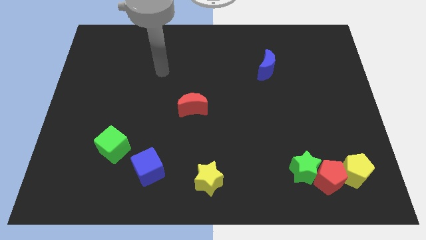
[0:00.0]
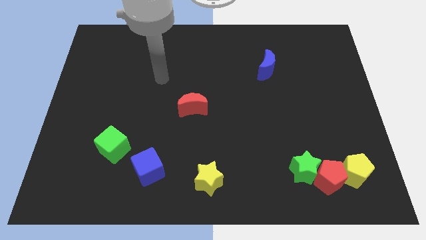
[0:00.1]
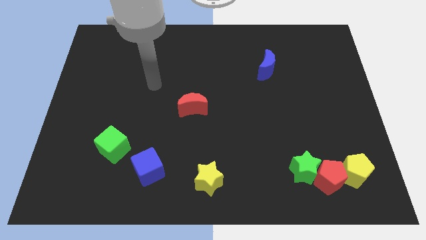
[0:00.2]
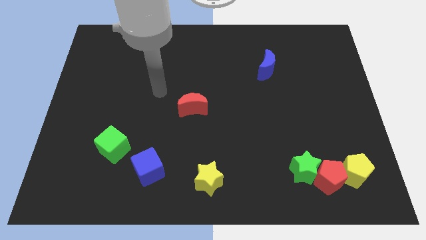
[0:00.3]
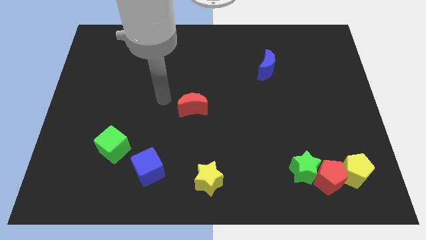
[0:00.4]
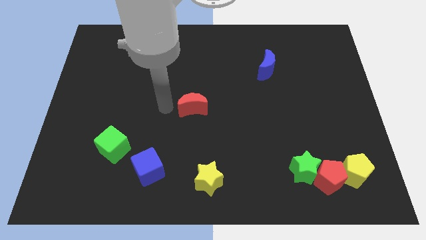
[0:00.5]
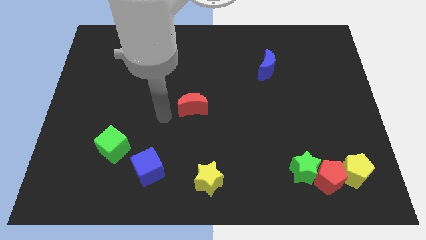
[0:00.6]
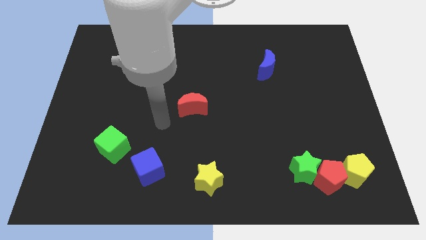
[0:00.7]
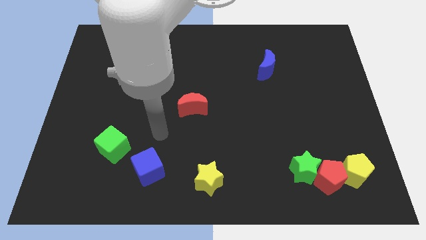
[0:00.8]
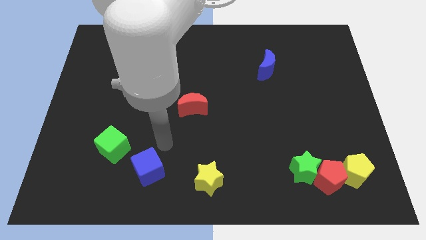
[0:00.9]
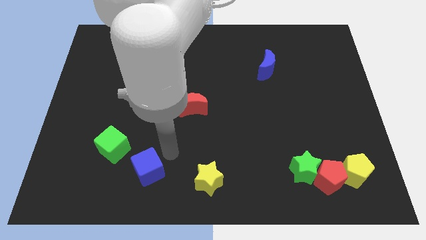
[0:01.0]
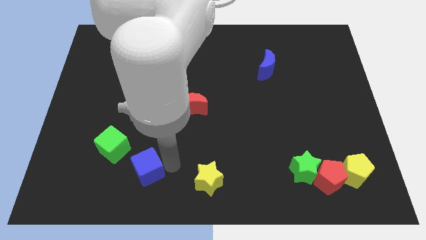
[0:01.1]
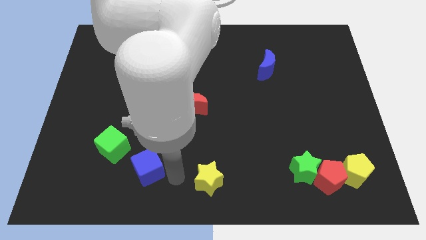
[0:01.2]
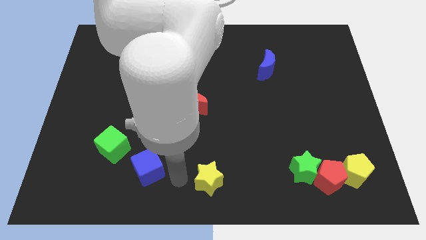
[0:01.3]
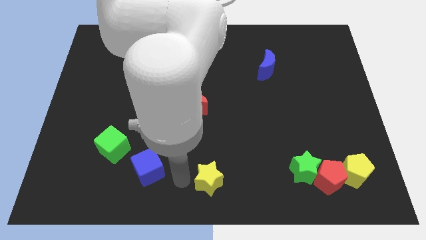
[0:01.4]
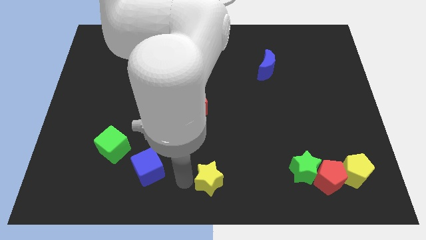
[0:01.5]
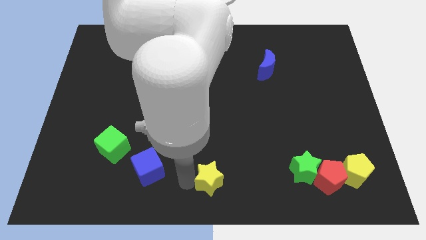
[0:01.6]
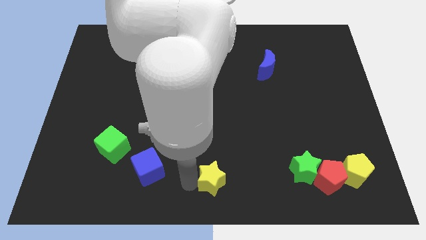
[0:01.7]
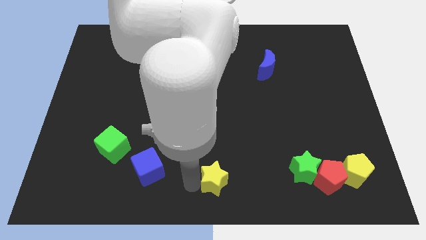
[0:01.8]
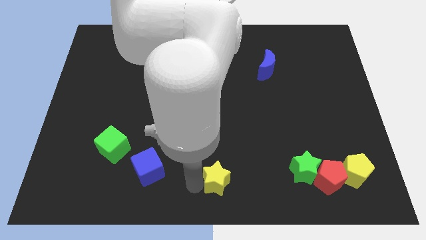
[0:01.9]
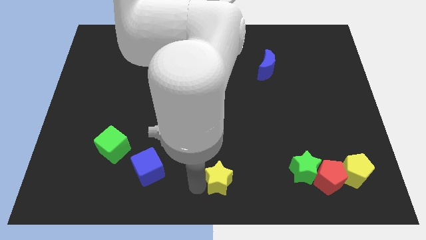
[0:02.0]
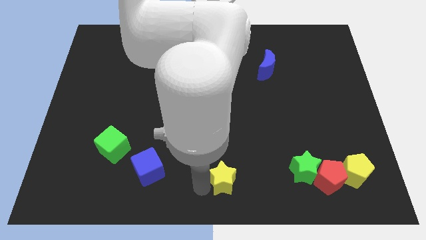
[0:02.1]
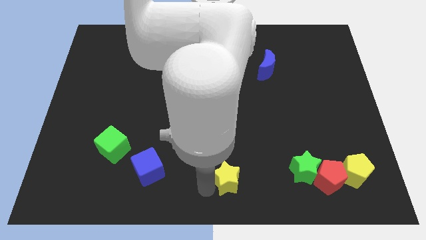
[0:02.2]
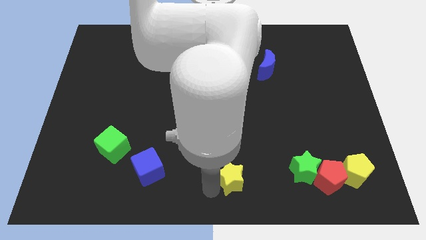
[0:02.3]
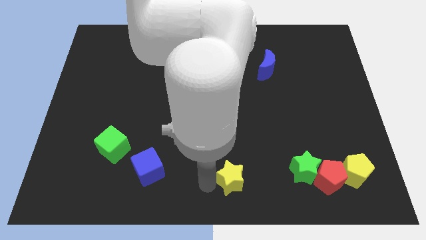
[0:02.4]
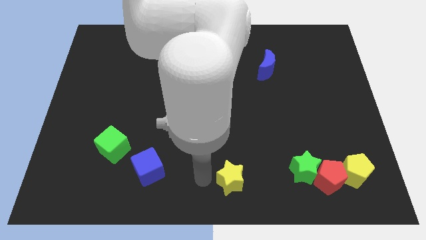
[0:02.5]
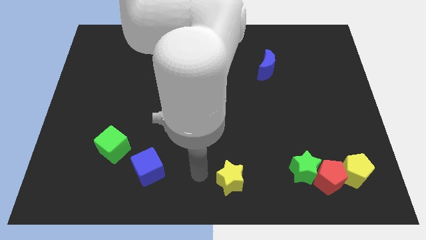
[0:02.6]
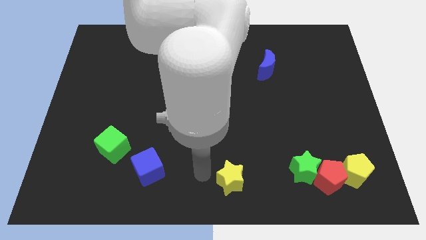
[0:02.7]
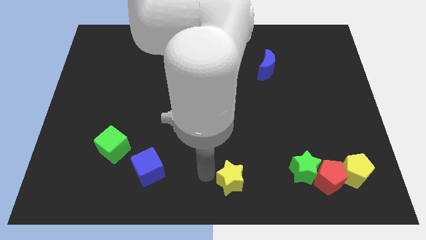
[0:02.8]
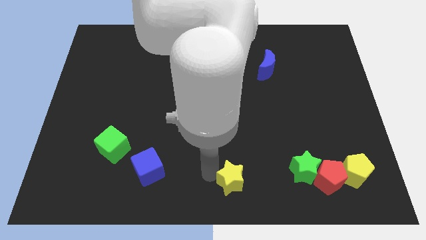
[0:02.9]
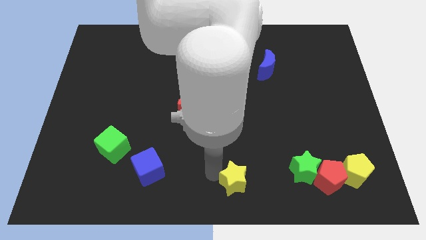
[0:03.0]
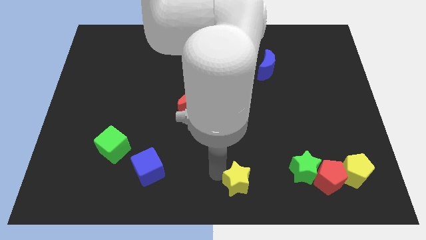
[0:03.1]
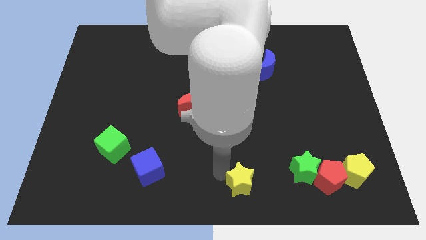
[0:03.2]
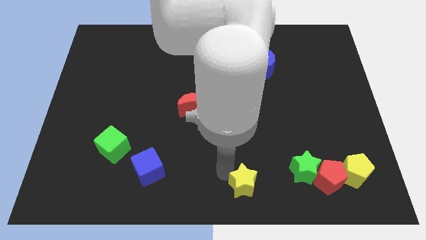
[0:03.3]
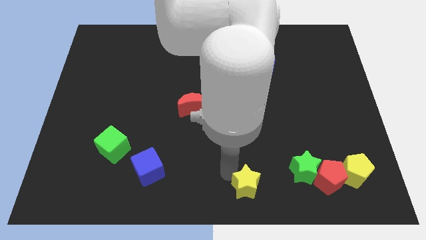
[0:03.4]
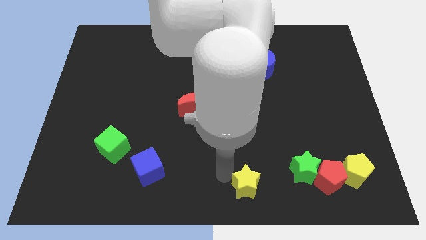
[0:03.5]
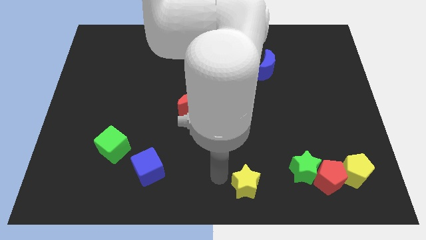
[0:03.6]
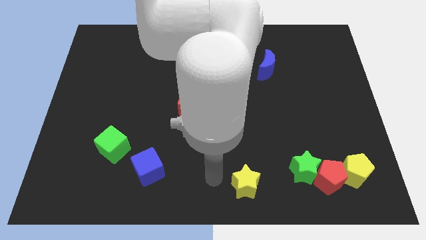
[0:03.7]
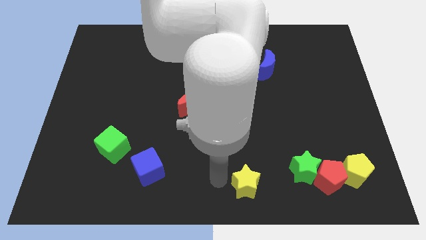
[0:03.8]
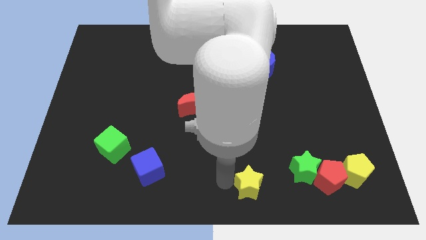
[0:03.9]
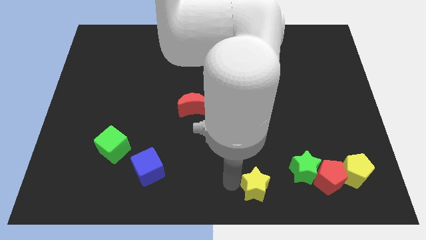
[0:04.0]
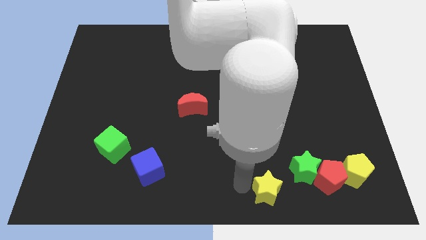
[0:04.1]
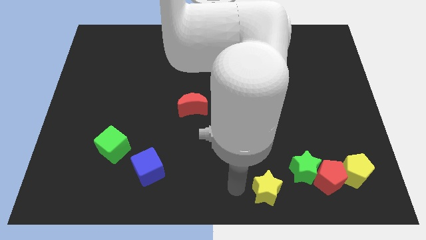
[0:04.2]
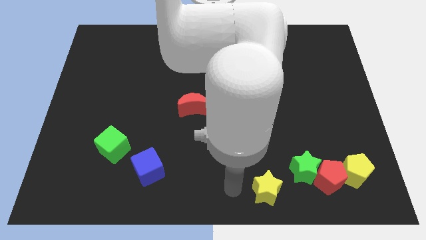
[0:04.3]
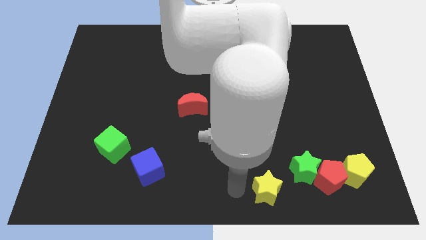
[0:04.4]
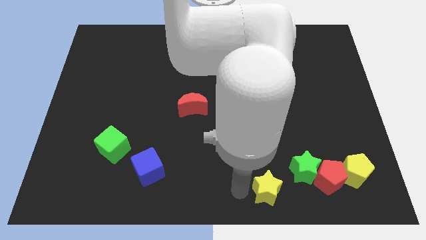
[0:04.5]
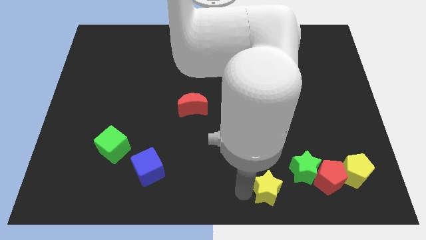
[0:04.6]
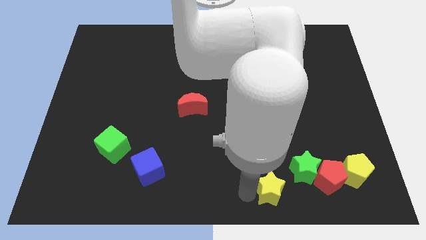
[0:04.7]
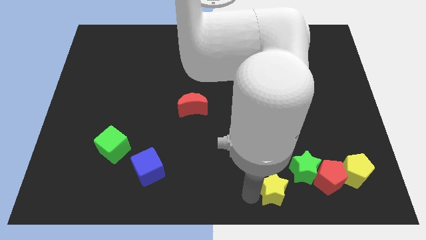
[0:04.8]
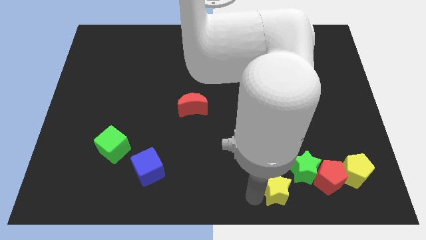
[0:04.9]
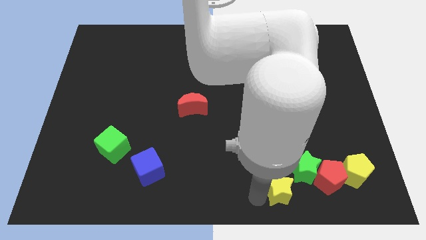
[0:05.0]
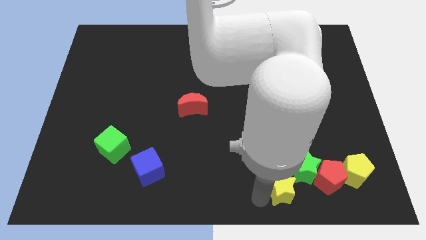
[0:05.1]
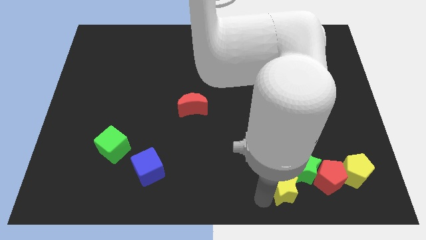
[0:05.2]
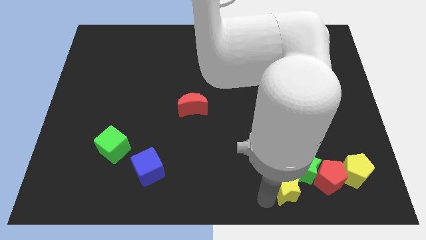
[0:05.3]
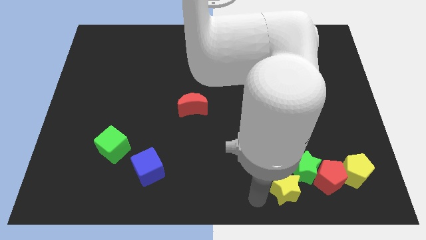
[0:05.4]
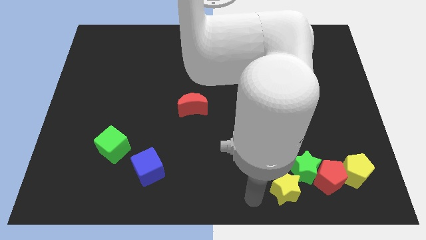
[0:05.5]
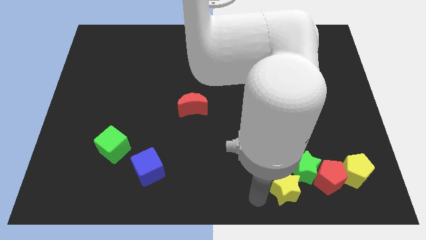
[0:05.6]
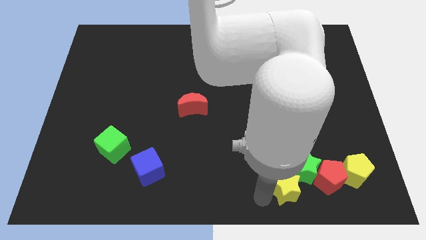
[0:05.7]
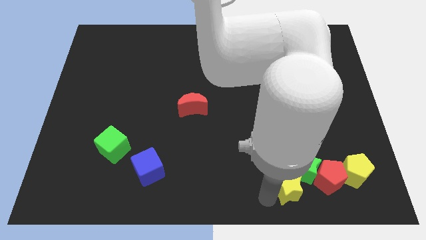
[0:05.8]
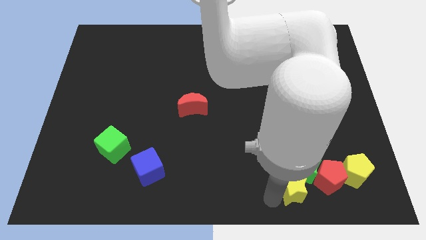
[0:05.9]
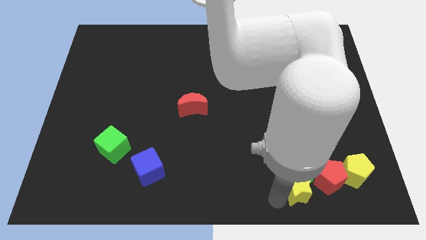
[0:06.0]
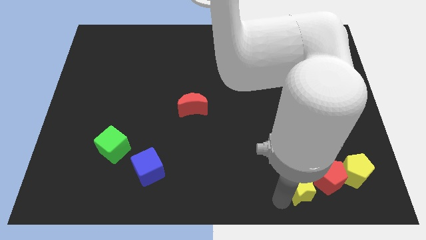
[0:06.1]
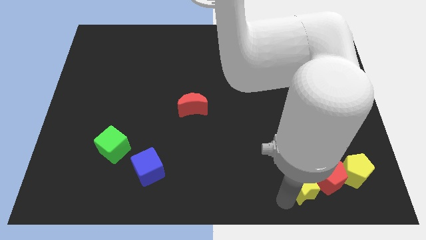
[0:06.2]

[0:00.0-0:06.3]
put the yellow star next to the red pentagon

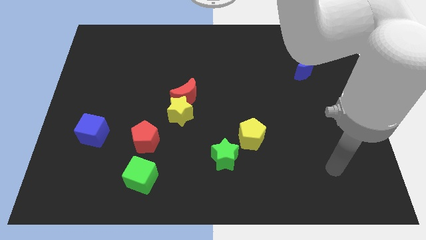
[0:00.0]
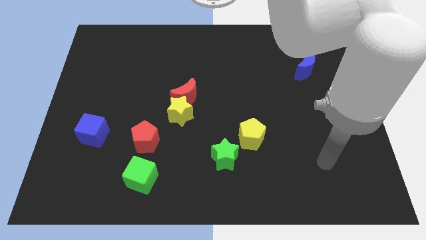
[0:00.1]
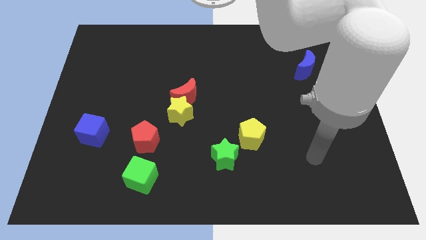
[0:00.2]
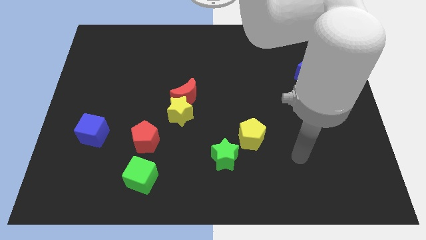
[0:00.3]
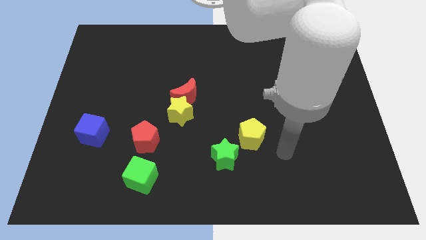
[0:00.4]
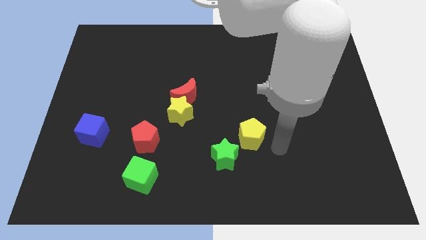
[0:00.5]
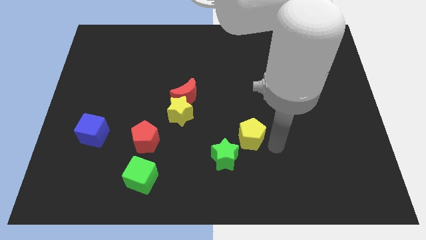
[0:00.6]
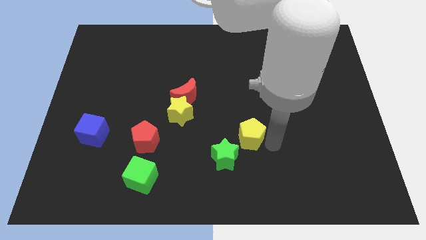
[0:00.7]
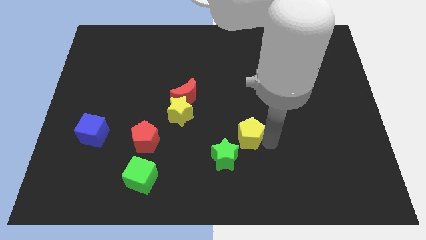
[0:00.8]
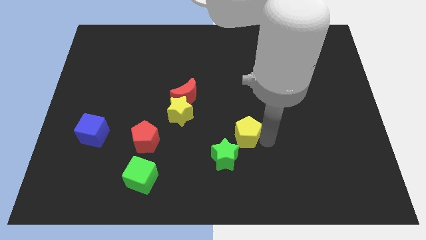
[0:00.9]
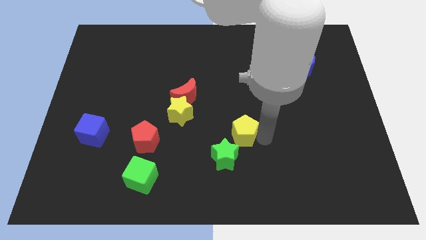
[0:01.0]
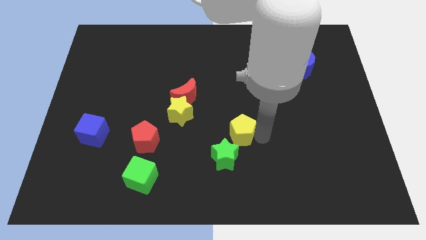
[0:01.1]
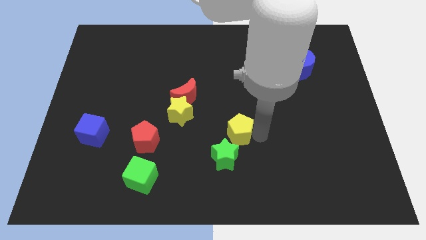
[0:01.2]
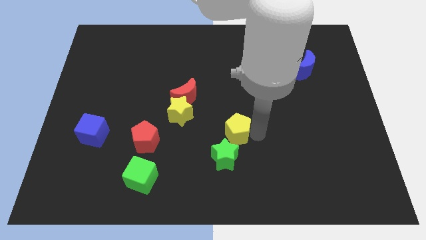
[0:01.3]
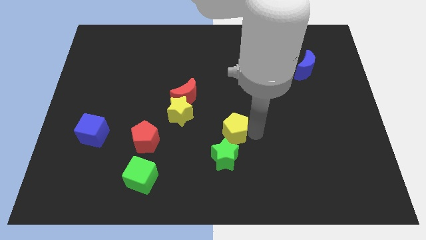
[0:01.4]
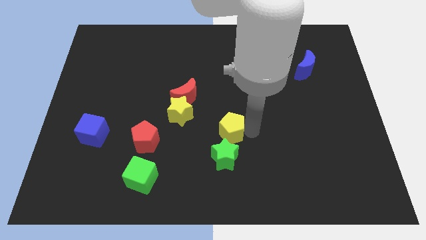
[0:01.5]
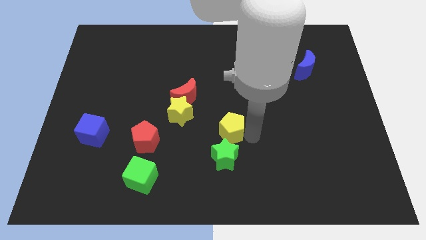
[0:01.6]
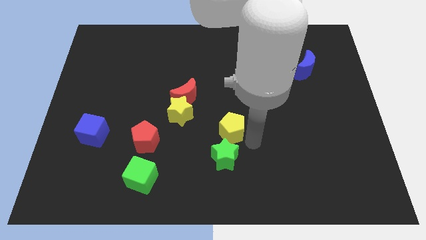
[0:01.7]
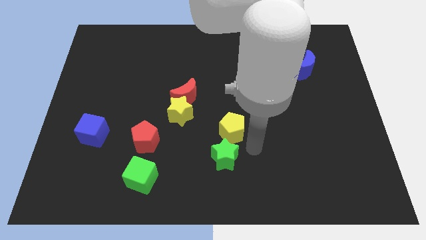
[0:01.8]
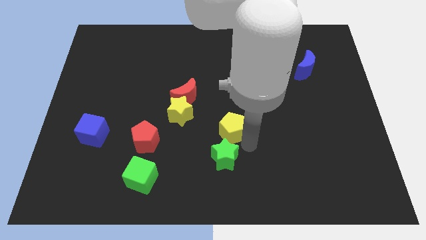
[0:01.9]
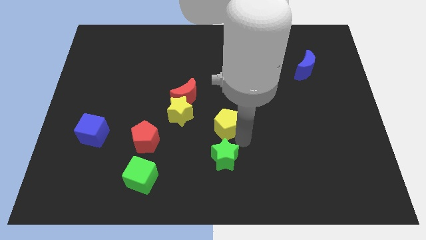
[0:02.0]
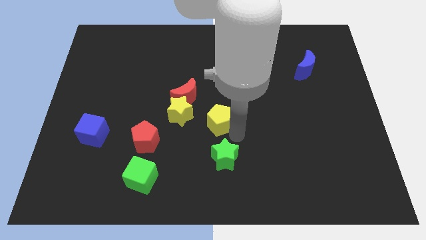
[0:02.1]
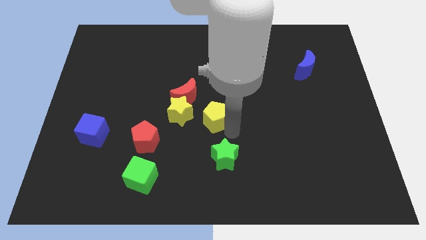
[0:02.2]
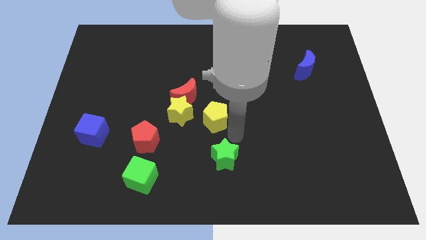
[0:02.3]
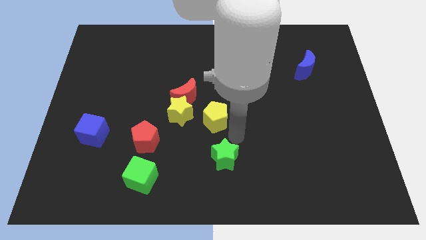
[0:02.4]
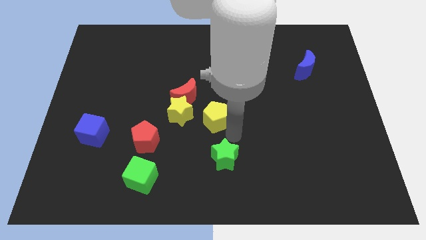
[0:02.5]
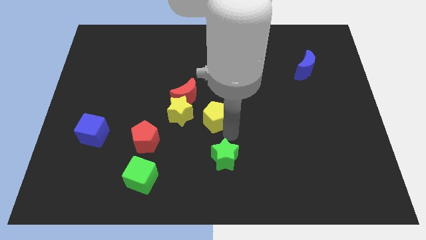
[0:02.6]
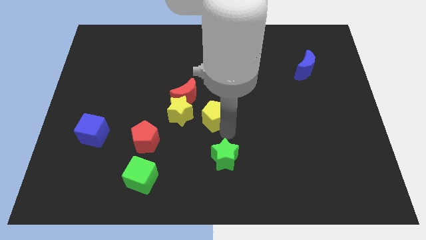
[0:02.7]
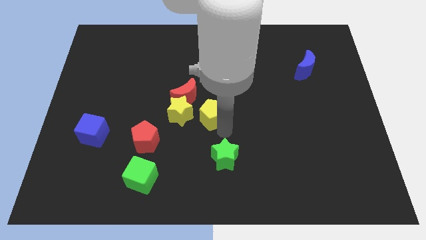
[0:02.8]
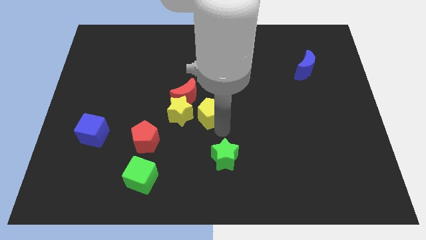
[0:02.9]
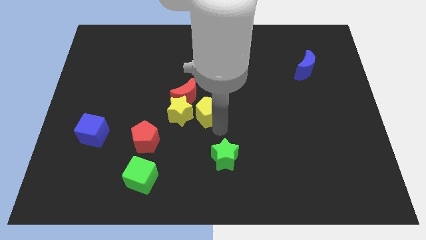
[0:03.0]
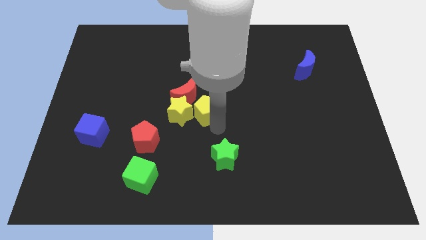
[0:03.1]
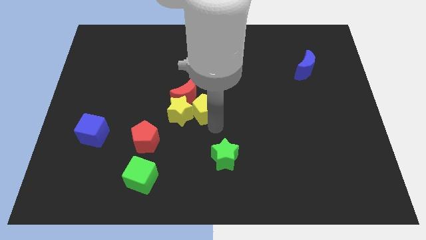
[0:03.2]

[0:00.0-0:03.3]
put the yellow pentagon towards the red moon
